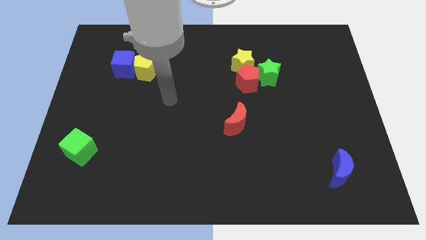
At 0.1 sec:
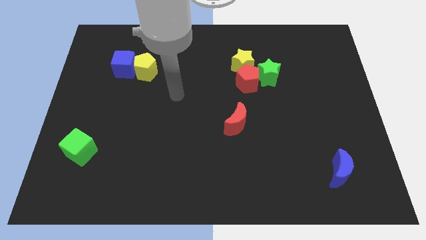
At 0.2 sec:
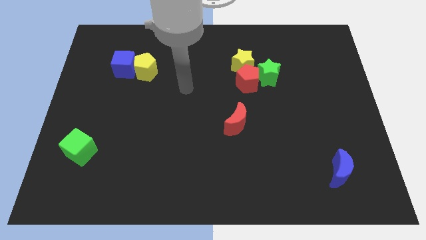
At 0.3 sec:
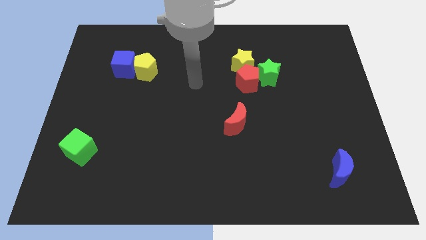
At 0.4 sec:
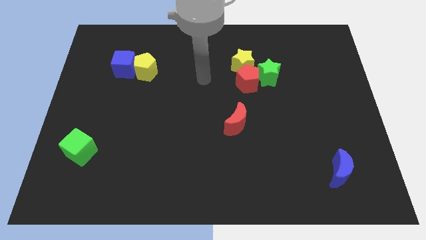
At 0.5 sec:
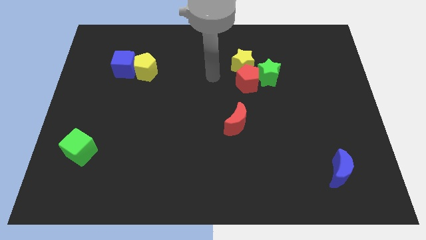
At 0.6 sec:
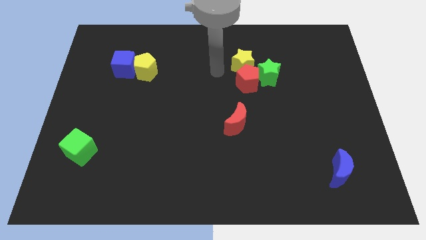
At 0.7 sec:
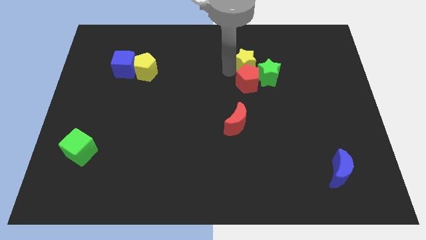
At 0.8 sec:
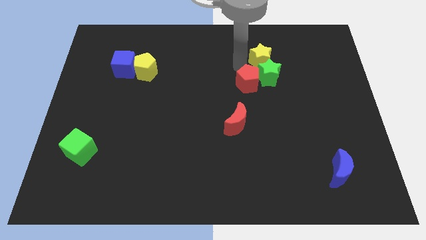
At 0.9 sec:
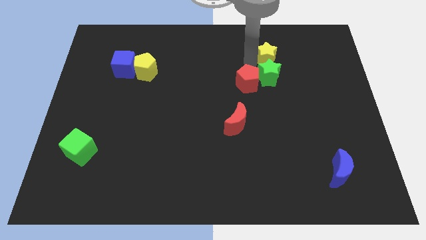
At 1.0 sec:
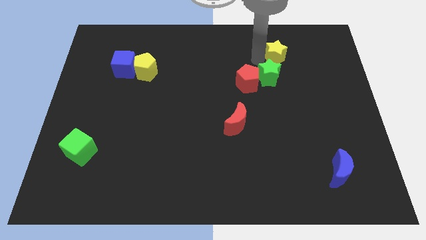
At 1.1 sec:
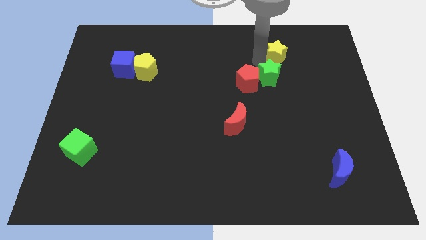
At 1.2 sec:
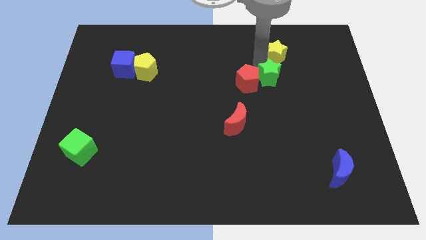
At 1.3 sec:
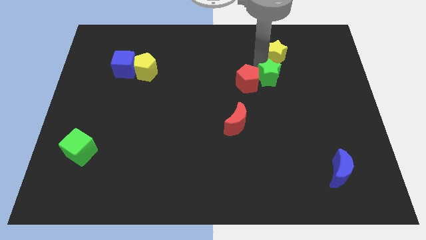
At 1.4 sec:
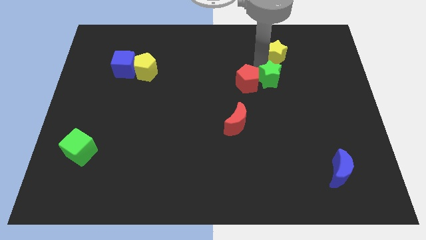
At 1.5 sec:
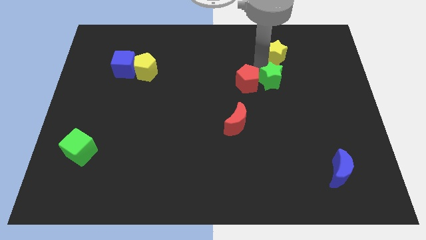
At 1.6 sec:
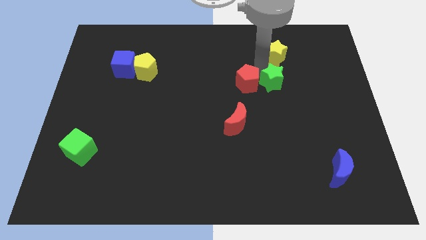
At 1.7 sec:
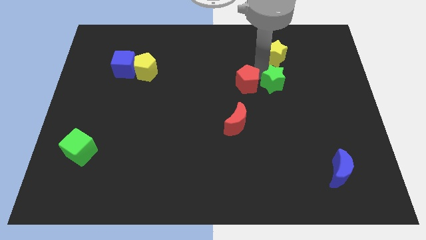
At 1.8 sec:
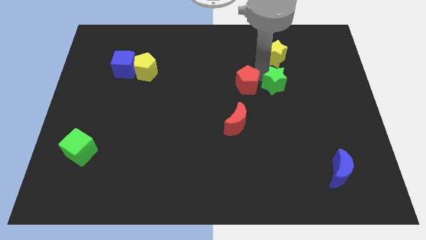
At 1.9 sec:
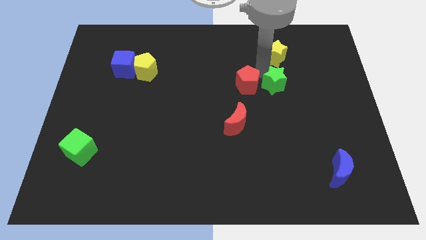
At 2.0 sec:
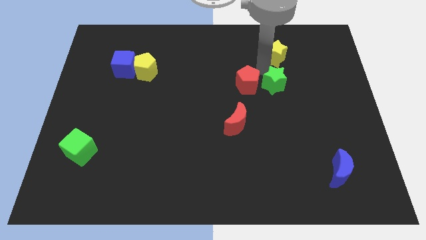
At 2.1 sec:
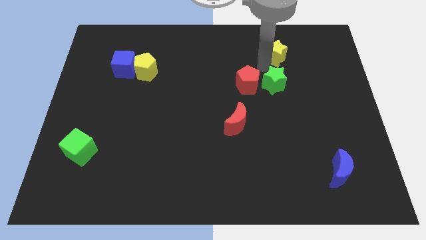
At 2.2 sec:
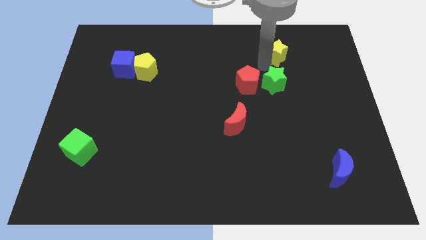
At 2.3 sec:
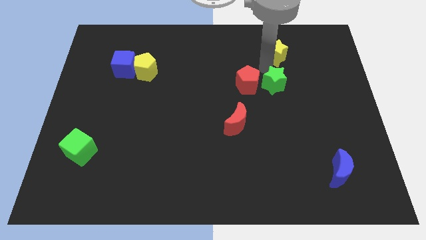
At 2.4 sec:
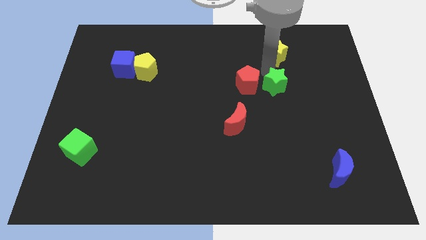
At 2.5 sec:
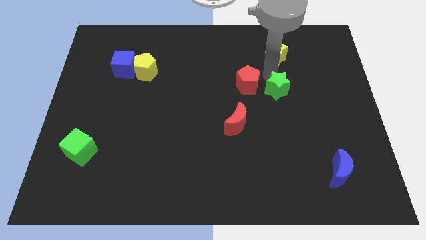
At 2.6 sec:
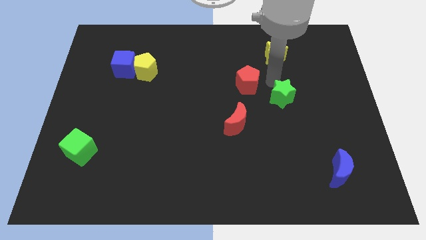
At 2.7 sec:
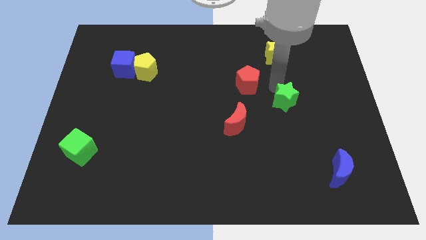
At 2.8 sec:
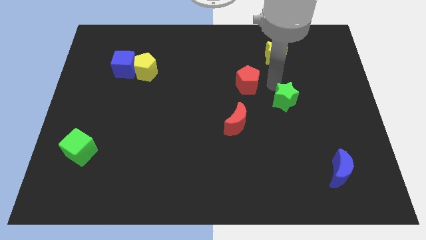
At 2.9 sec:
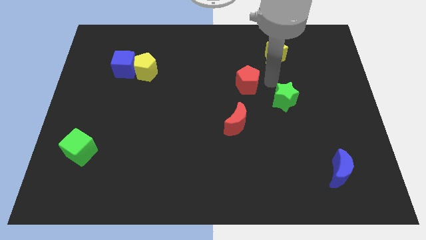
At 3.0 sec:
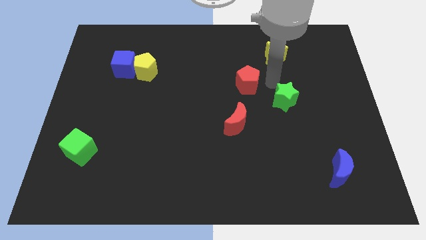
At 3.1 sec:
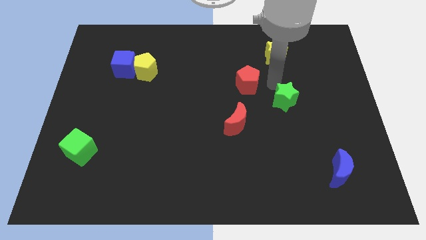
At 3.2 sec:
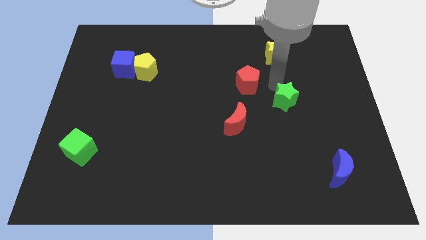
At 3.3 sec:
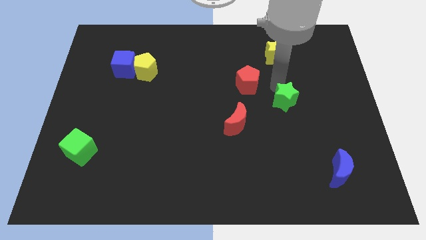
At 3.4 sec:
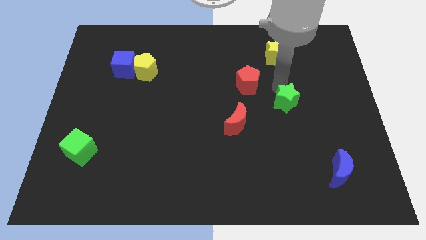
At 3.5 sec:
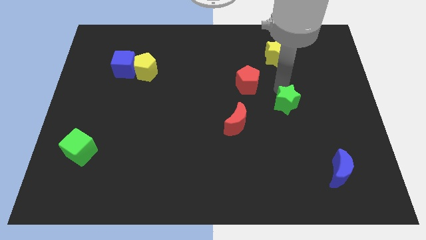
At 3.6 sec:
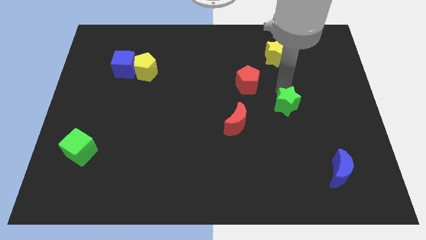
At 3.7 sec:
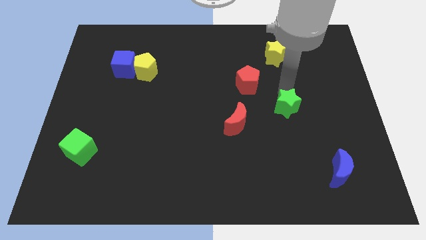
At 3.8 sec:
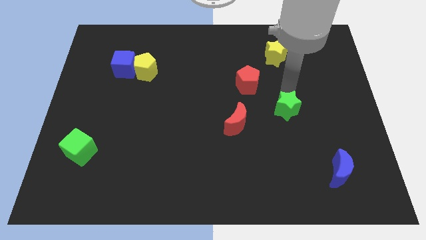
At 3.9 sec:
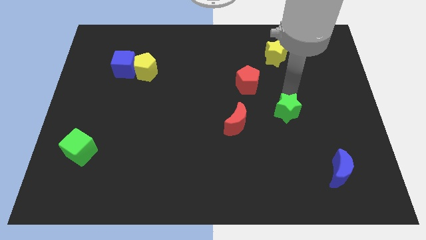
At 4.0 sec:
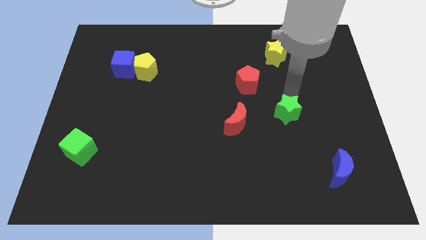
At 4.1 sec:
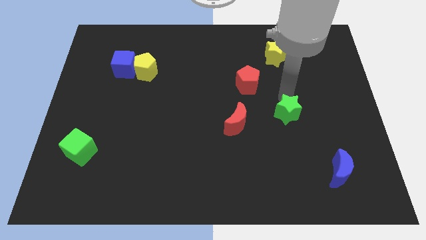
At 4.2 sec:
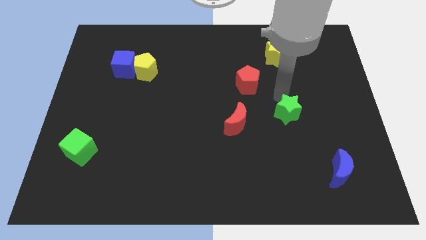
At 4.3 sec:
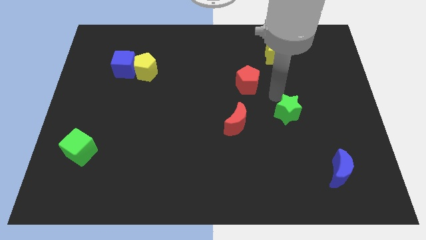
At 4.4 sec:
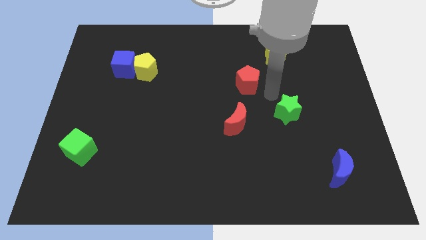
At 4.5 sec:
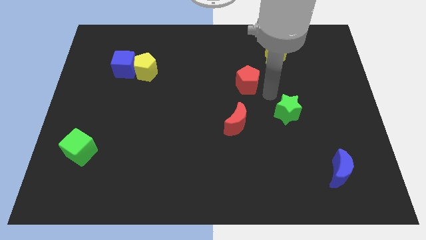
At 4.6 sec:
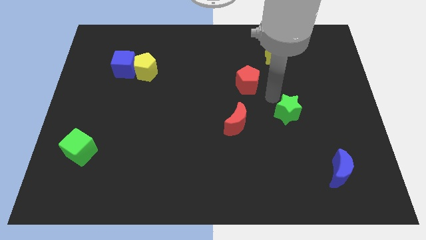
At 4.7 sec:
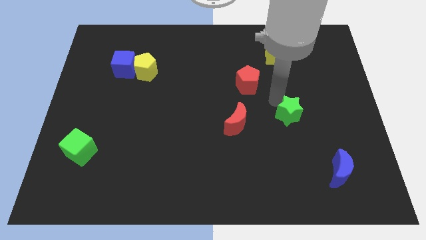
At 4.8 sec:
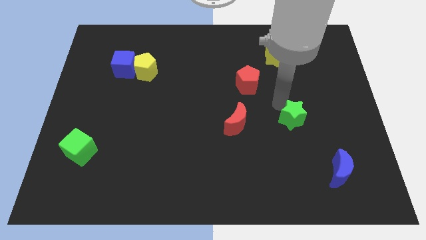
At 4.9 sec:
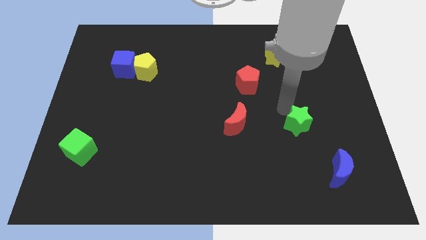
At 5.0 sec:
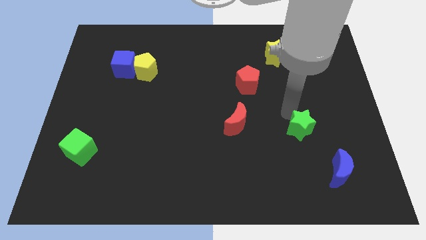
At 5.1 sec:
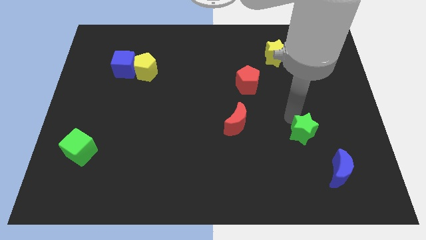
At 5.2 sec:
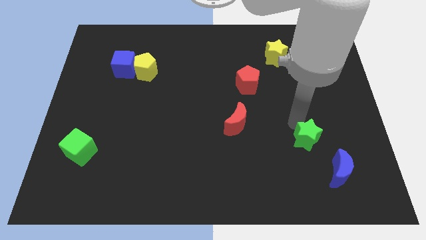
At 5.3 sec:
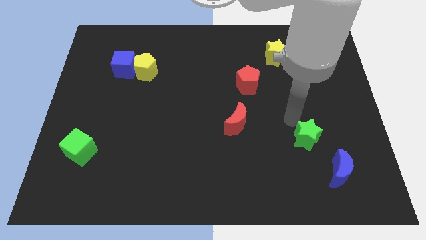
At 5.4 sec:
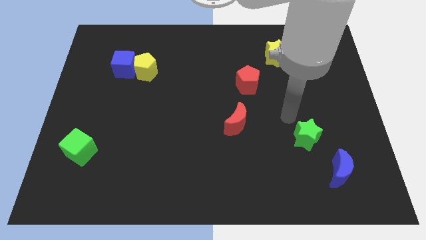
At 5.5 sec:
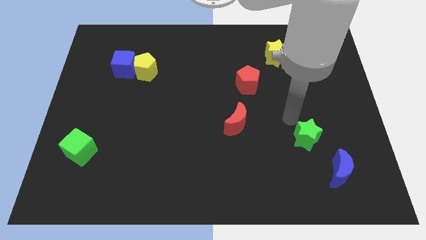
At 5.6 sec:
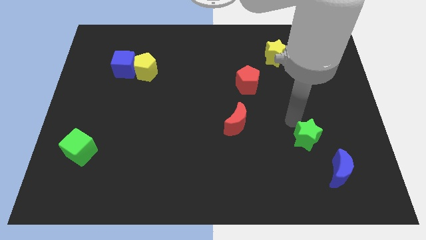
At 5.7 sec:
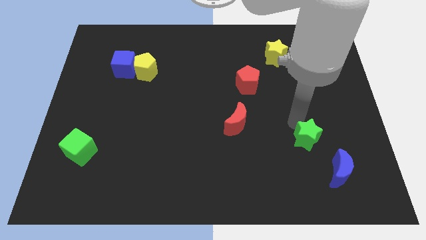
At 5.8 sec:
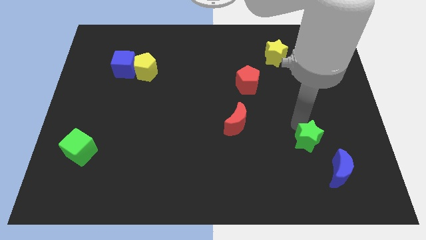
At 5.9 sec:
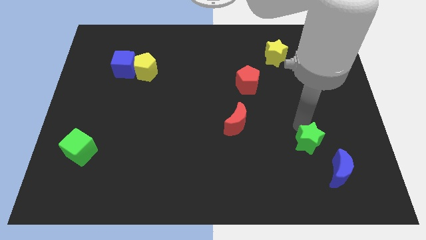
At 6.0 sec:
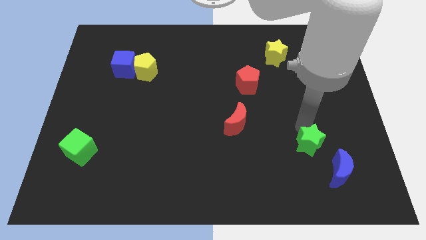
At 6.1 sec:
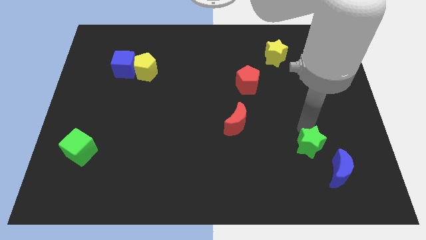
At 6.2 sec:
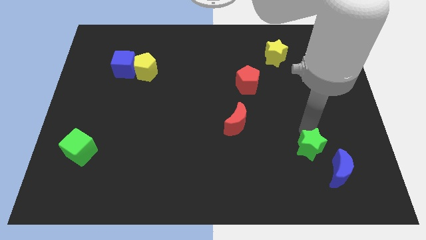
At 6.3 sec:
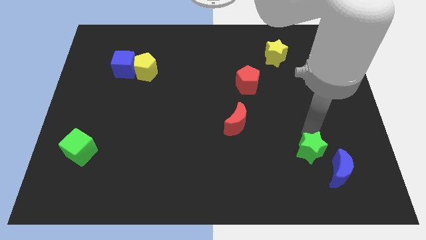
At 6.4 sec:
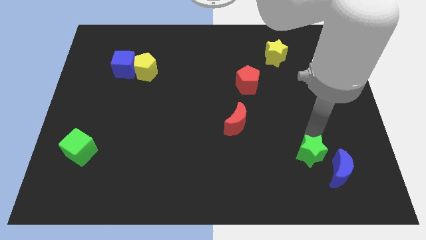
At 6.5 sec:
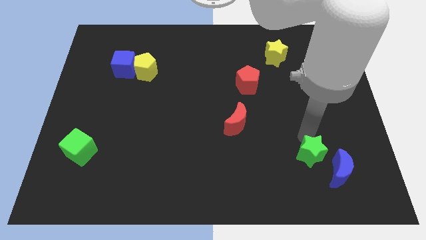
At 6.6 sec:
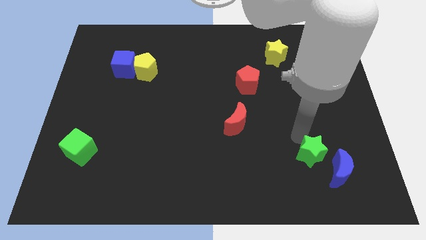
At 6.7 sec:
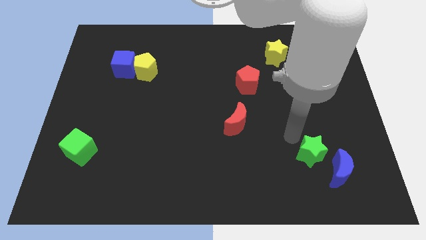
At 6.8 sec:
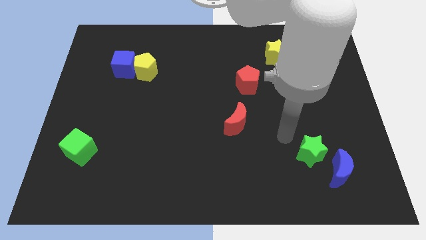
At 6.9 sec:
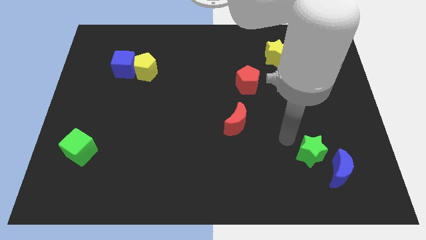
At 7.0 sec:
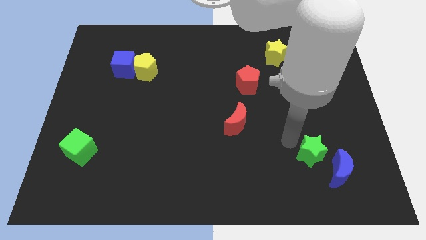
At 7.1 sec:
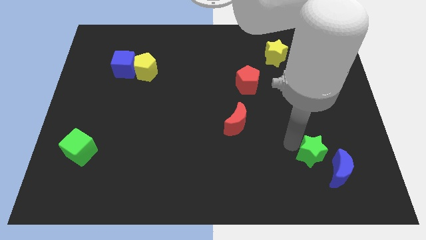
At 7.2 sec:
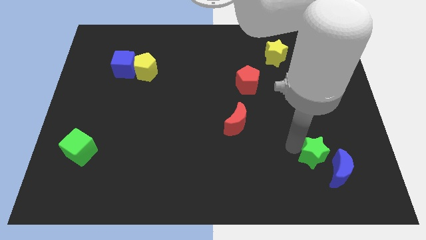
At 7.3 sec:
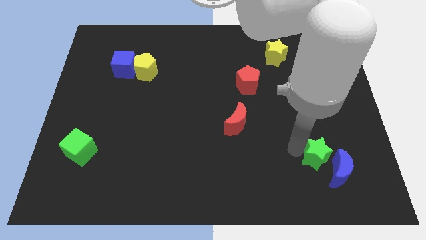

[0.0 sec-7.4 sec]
slide the green star towards the blue moon

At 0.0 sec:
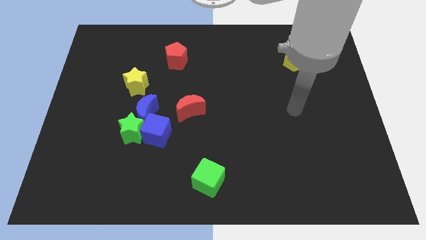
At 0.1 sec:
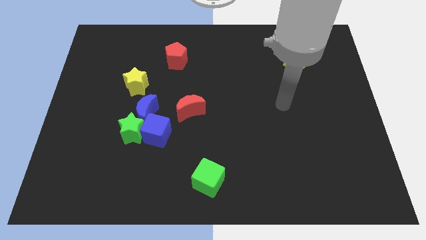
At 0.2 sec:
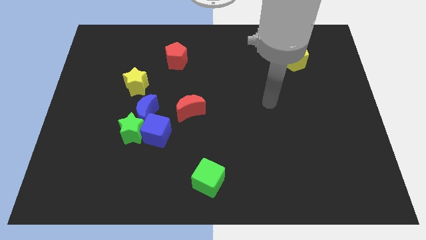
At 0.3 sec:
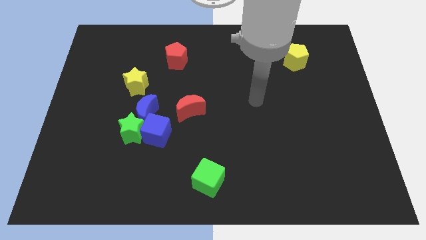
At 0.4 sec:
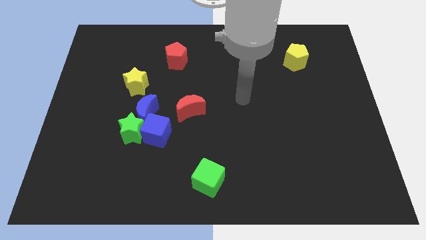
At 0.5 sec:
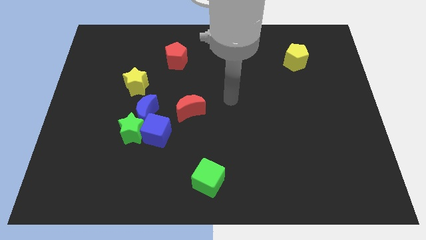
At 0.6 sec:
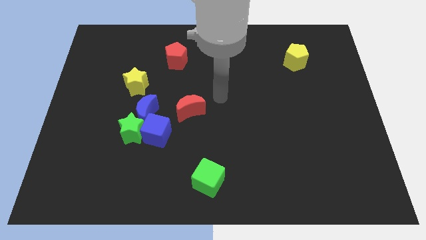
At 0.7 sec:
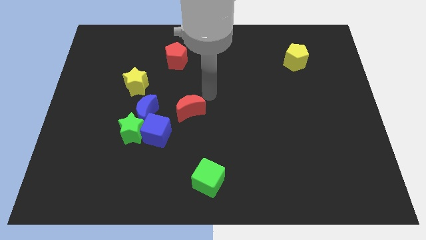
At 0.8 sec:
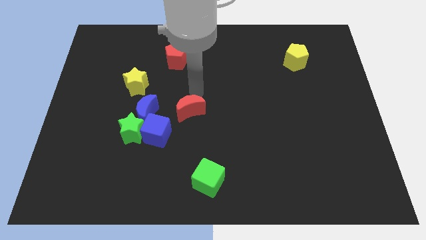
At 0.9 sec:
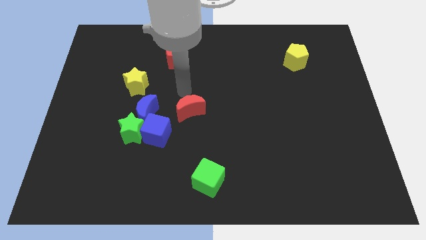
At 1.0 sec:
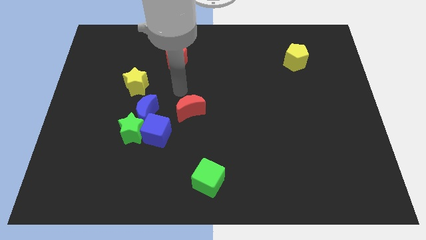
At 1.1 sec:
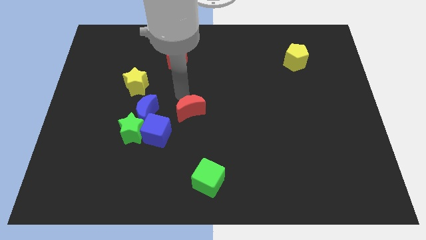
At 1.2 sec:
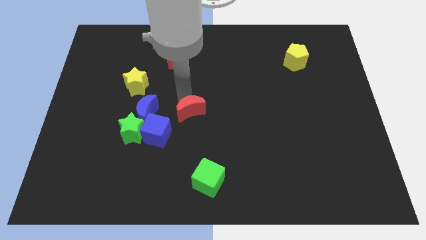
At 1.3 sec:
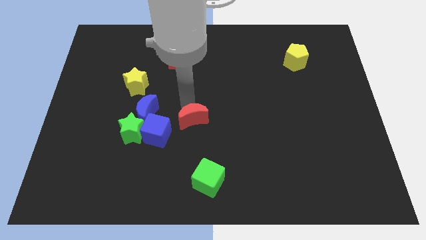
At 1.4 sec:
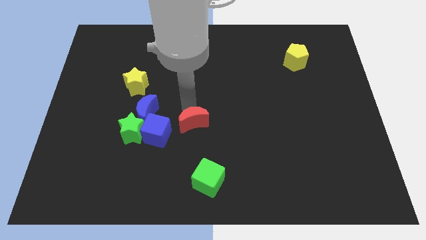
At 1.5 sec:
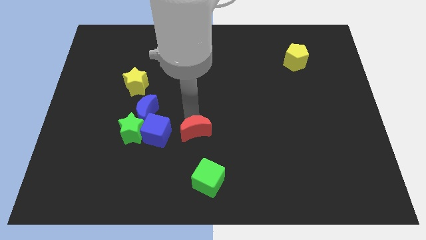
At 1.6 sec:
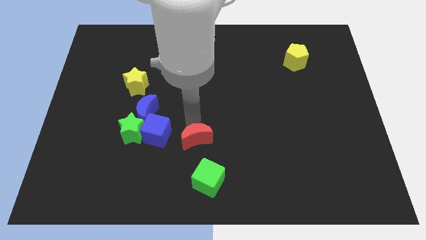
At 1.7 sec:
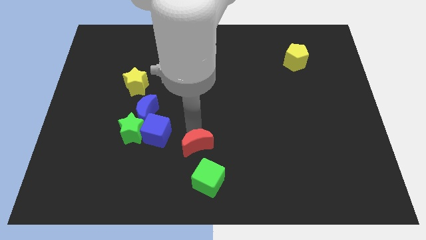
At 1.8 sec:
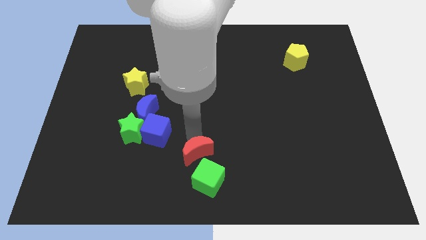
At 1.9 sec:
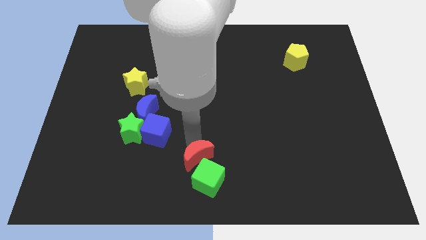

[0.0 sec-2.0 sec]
slide the red moon close to the green cube
